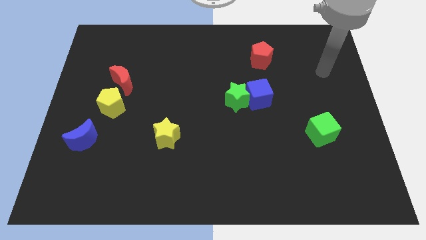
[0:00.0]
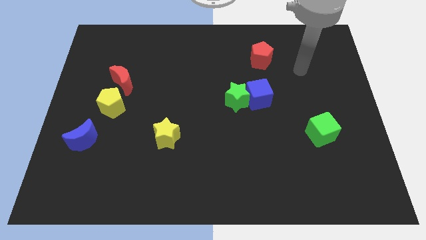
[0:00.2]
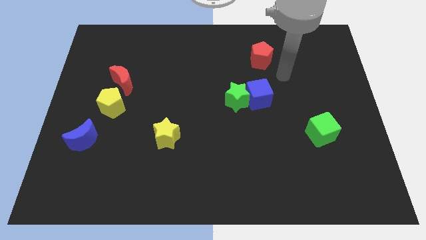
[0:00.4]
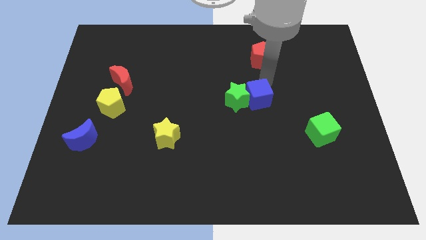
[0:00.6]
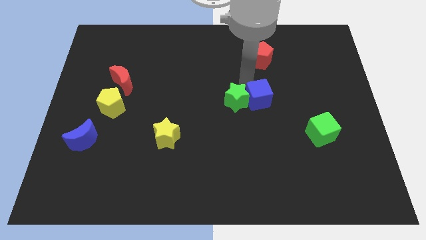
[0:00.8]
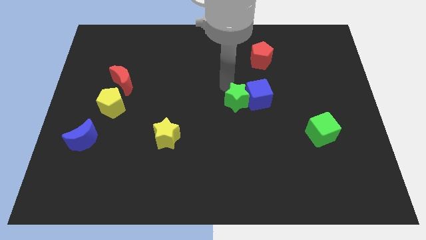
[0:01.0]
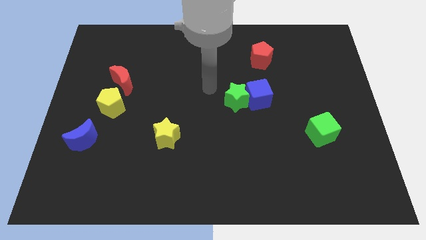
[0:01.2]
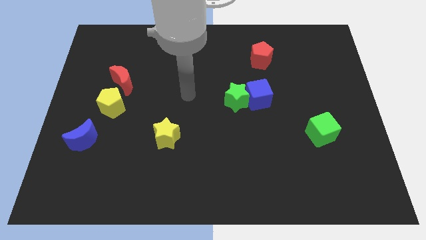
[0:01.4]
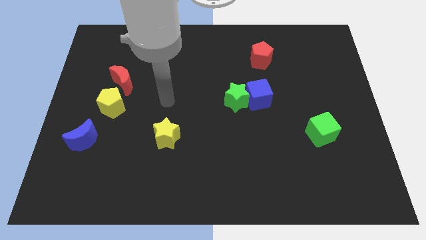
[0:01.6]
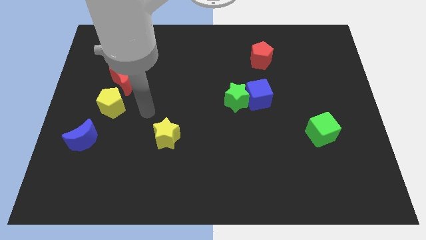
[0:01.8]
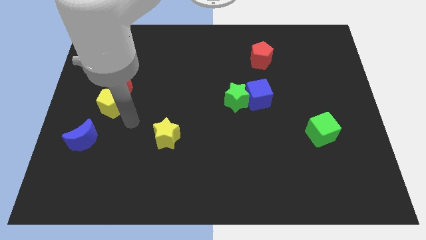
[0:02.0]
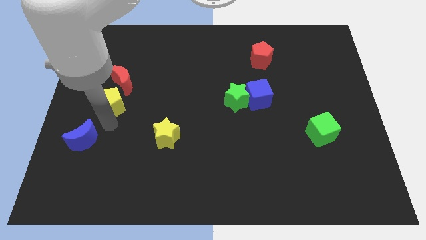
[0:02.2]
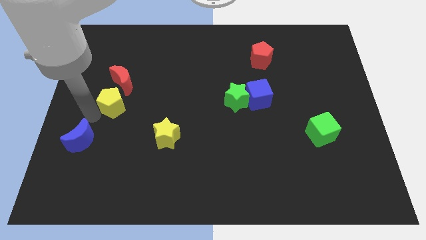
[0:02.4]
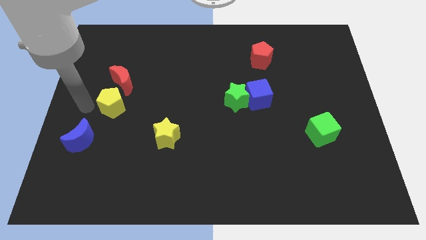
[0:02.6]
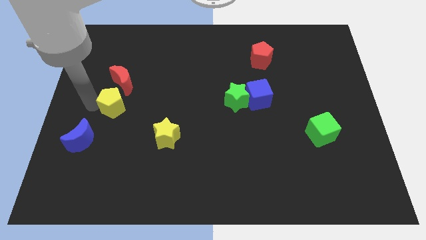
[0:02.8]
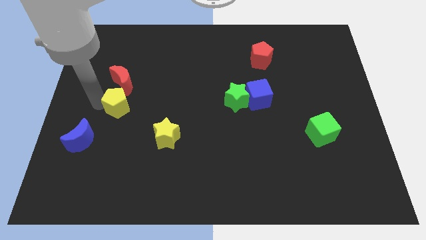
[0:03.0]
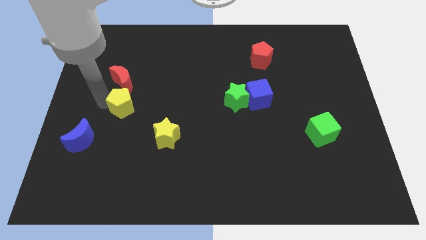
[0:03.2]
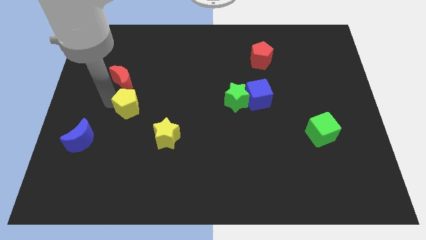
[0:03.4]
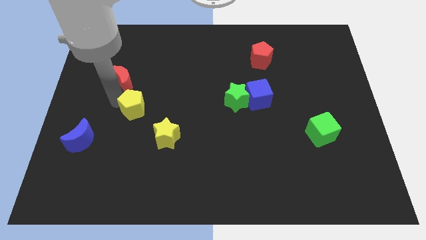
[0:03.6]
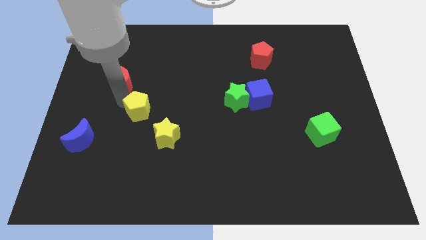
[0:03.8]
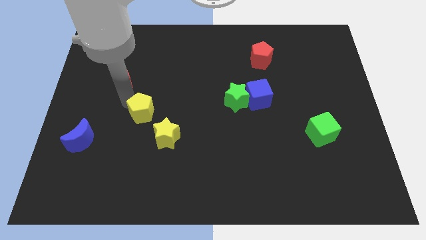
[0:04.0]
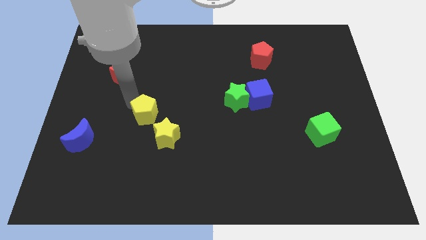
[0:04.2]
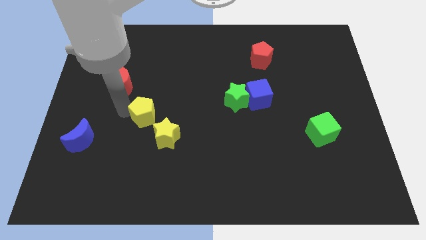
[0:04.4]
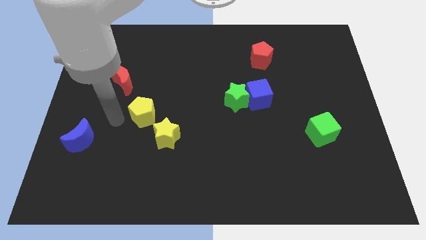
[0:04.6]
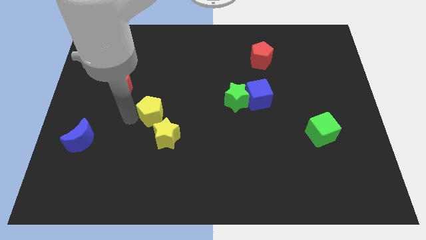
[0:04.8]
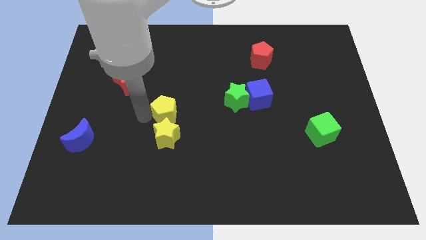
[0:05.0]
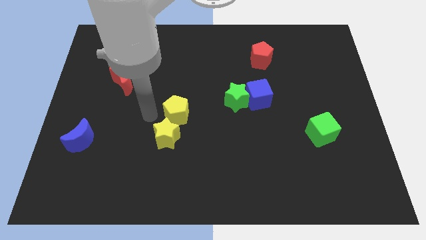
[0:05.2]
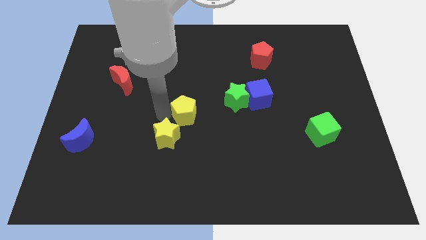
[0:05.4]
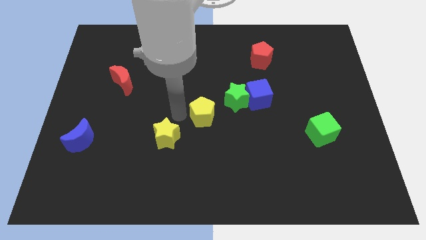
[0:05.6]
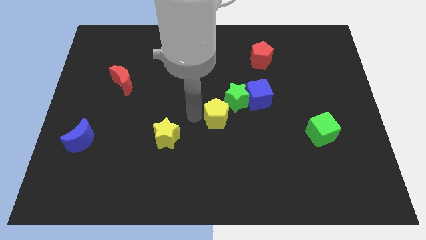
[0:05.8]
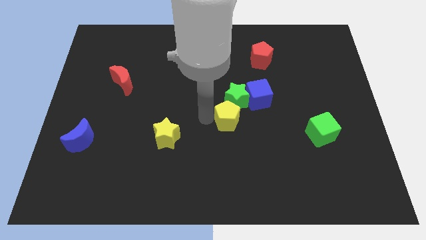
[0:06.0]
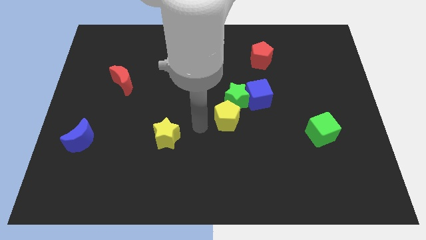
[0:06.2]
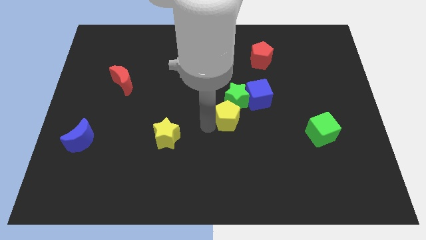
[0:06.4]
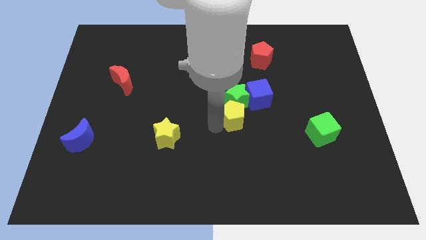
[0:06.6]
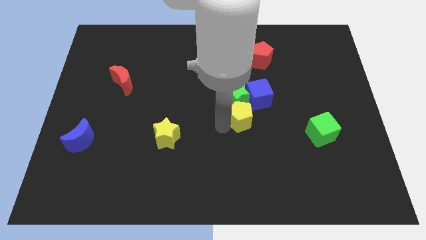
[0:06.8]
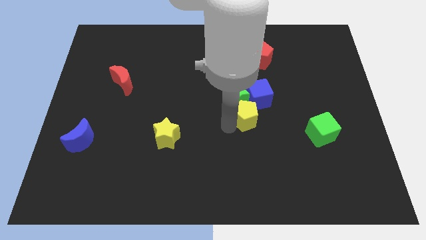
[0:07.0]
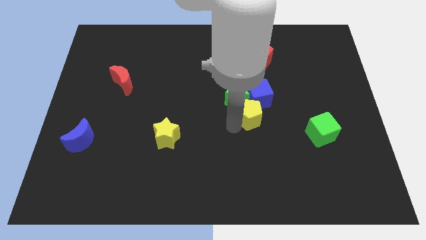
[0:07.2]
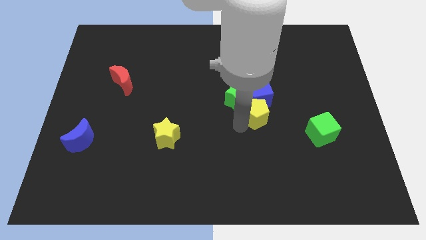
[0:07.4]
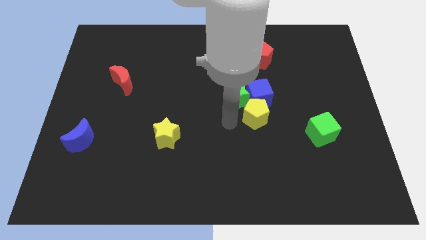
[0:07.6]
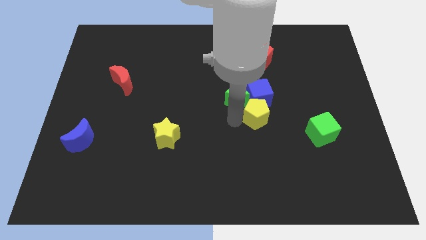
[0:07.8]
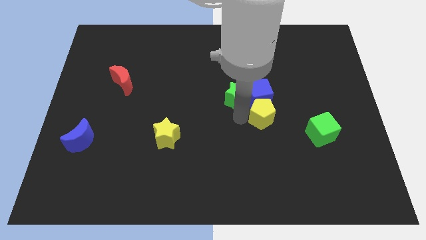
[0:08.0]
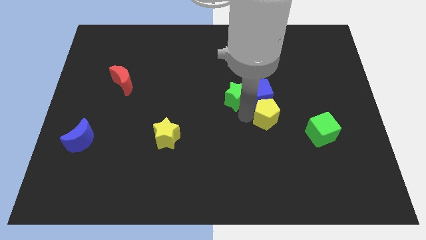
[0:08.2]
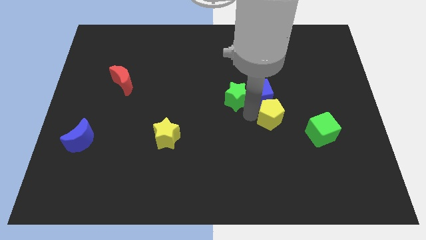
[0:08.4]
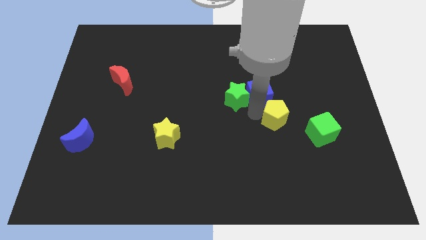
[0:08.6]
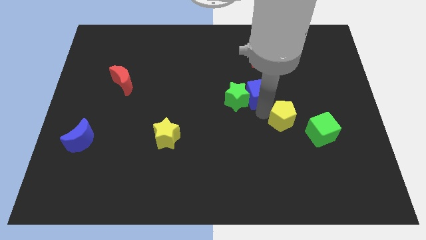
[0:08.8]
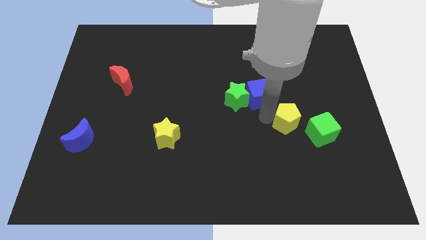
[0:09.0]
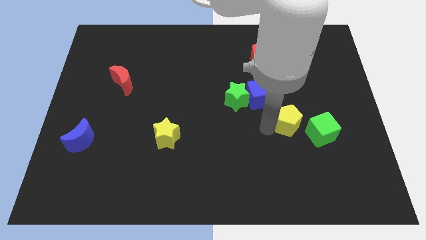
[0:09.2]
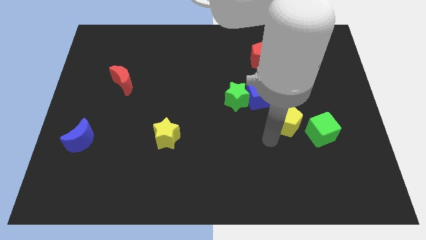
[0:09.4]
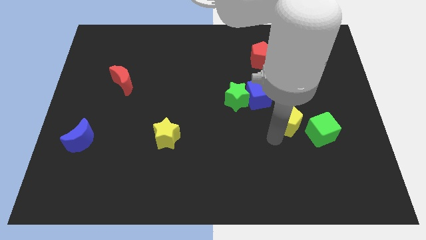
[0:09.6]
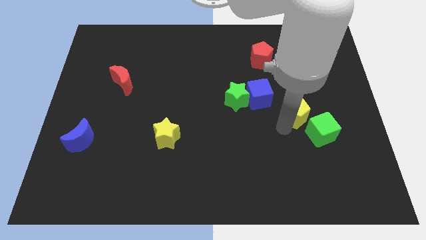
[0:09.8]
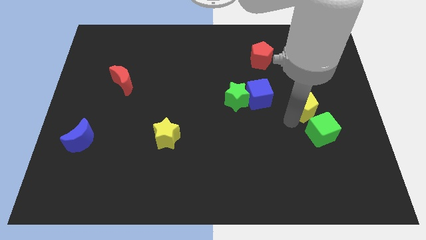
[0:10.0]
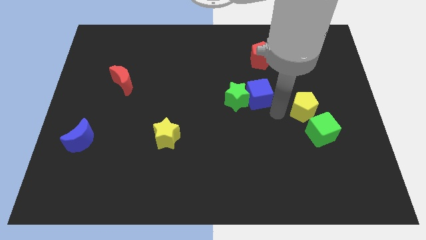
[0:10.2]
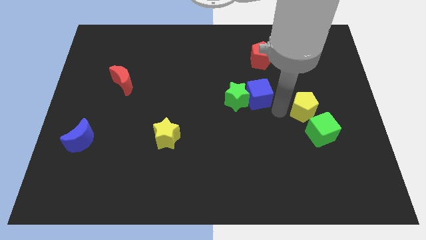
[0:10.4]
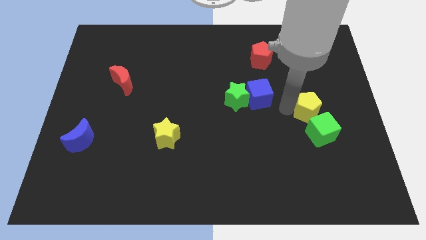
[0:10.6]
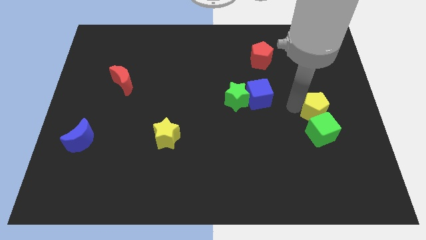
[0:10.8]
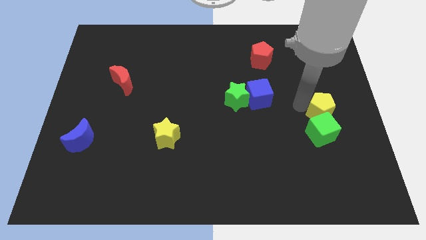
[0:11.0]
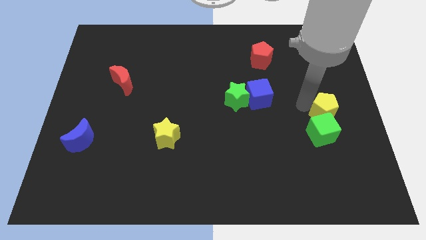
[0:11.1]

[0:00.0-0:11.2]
push the yellow pentagon to the right side

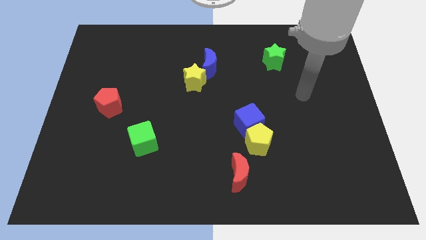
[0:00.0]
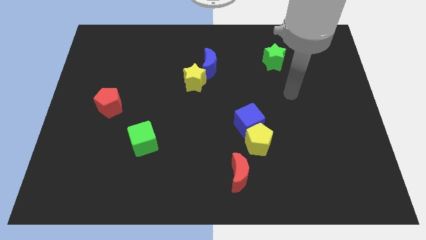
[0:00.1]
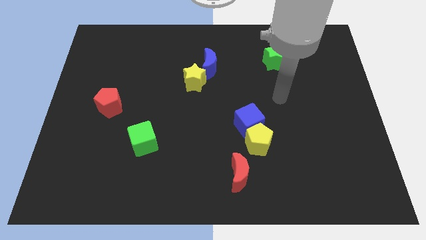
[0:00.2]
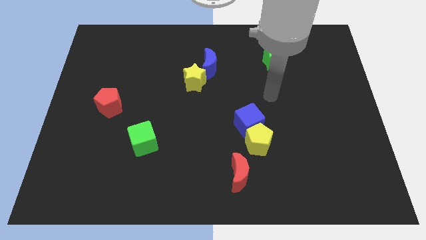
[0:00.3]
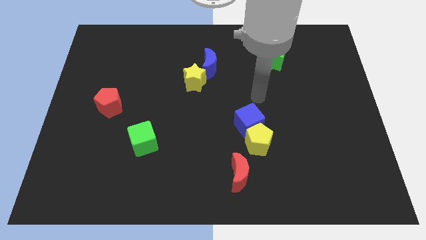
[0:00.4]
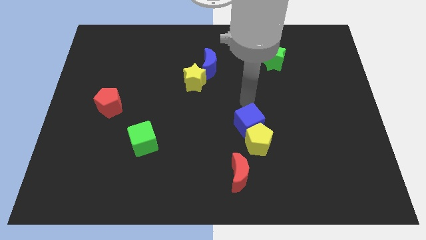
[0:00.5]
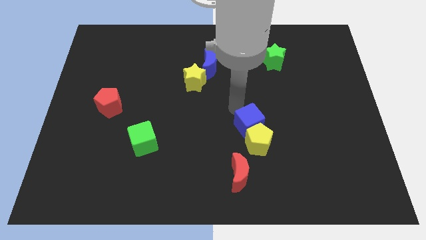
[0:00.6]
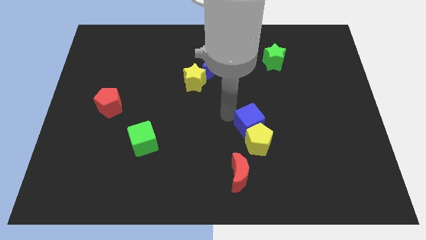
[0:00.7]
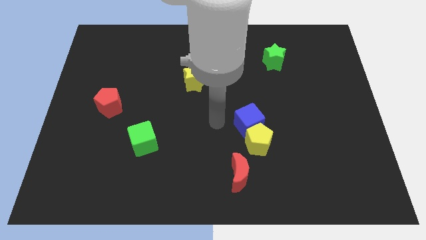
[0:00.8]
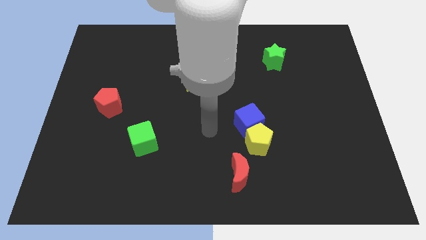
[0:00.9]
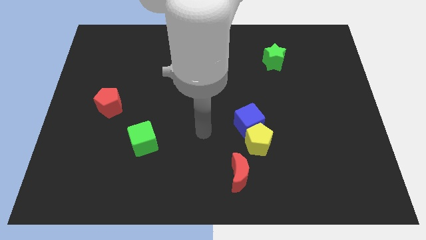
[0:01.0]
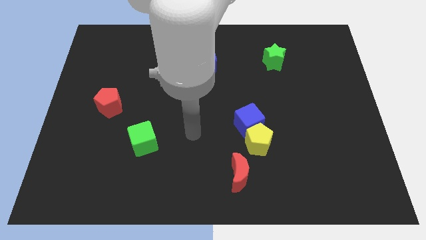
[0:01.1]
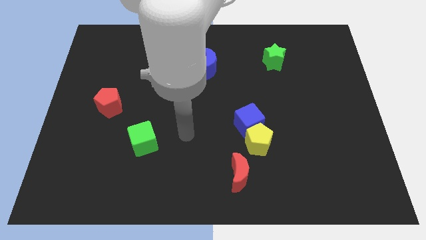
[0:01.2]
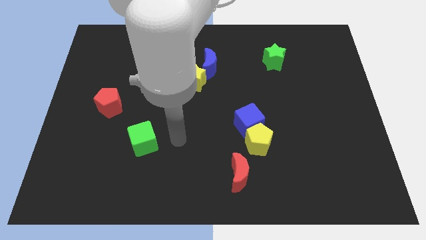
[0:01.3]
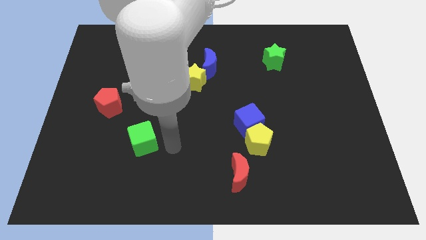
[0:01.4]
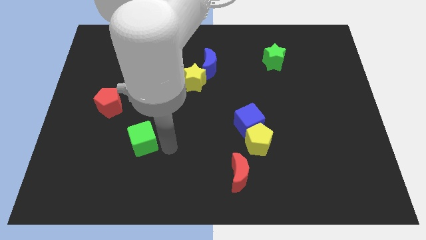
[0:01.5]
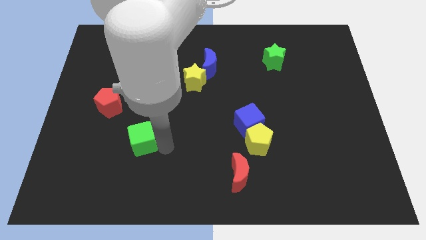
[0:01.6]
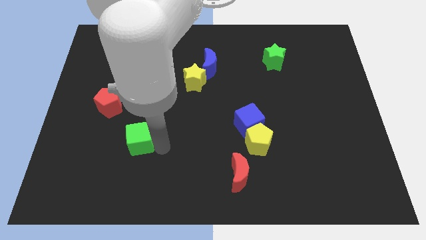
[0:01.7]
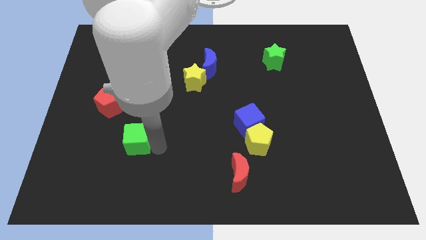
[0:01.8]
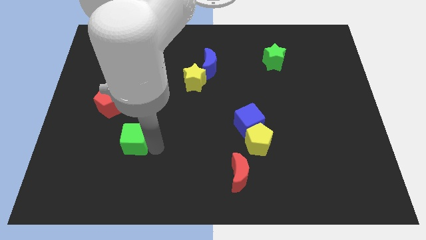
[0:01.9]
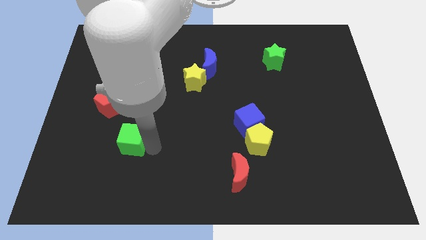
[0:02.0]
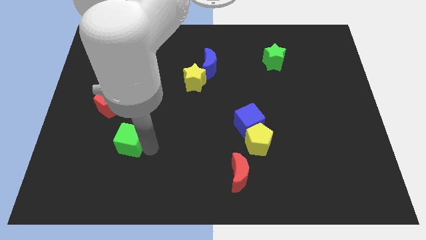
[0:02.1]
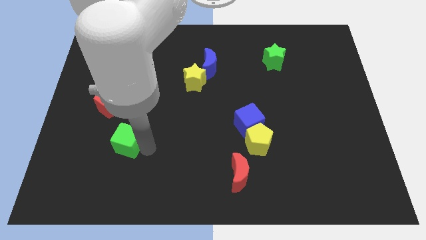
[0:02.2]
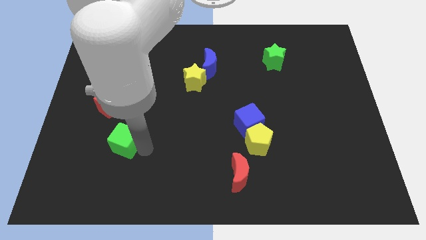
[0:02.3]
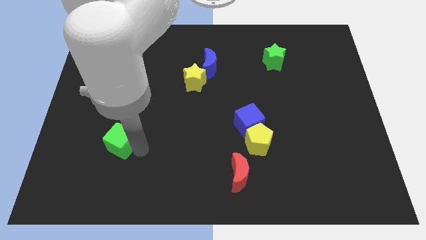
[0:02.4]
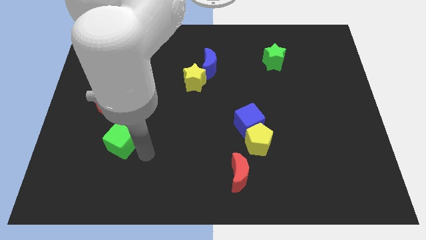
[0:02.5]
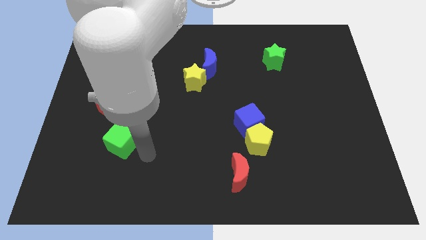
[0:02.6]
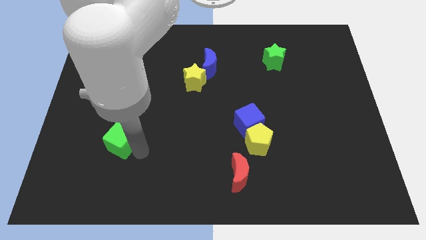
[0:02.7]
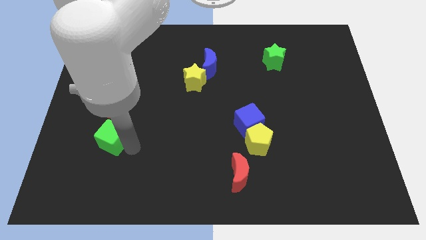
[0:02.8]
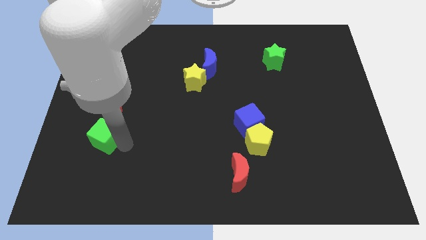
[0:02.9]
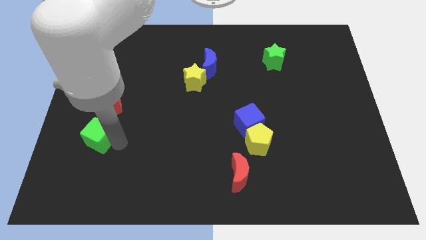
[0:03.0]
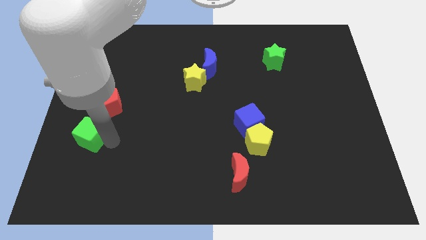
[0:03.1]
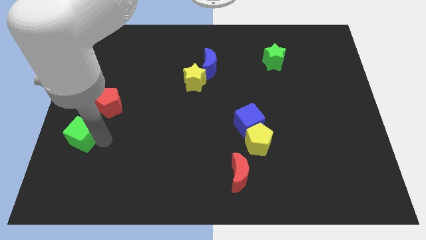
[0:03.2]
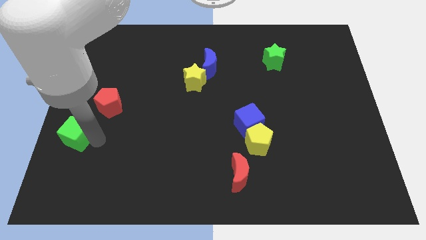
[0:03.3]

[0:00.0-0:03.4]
put the green cube to the left side
